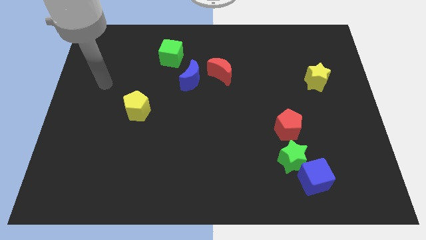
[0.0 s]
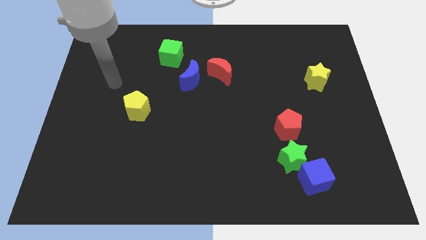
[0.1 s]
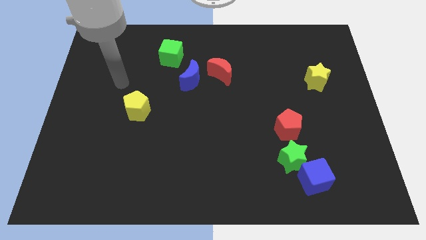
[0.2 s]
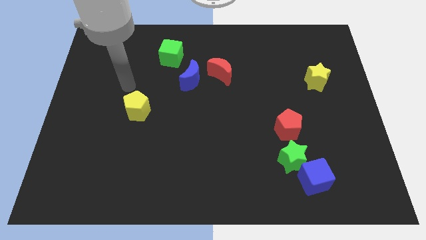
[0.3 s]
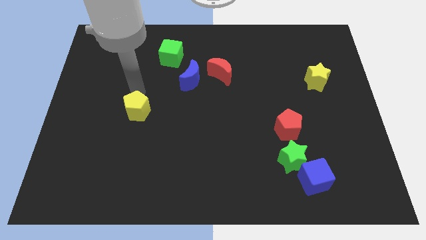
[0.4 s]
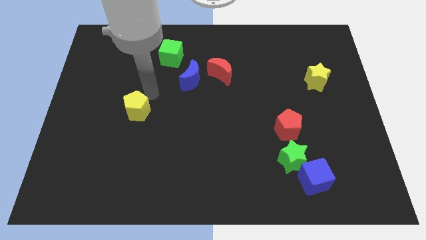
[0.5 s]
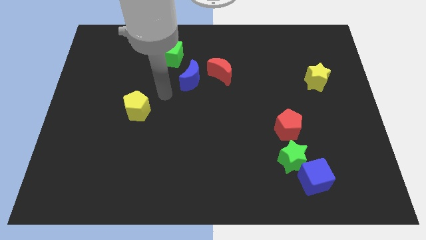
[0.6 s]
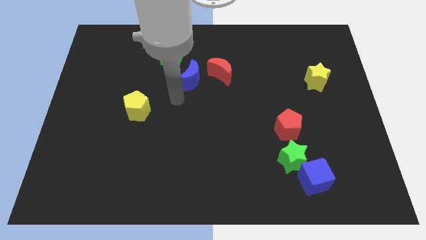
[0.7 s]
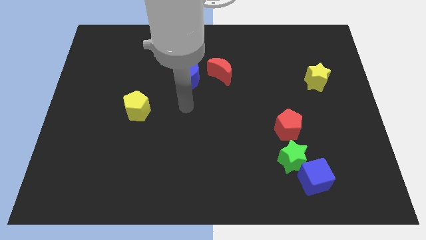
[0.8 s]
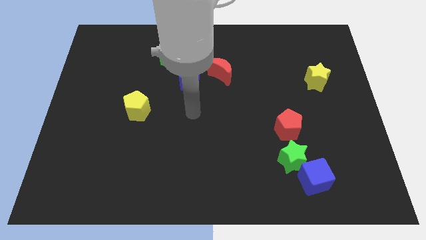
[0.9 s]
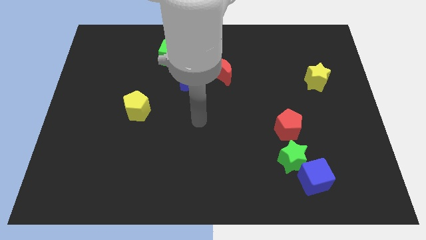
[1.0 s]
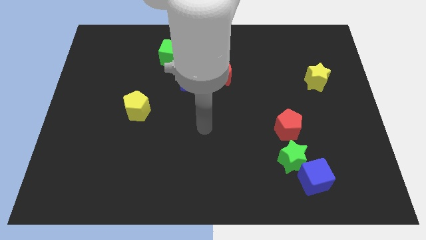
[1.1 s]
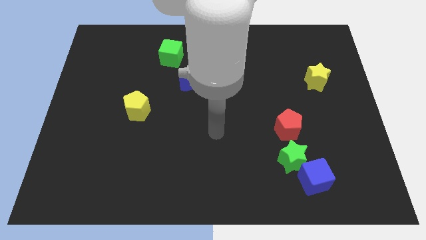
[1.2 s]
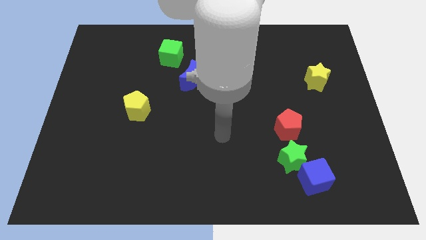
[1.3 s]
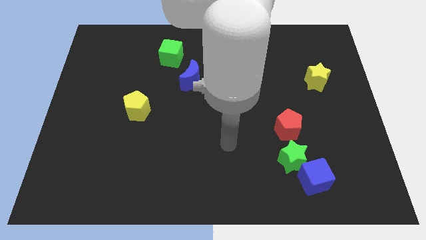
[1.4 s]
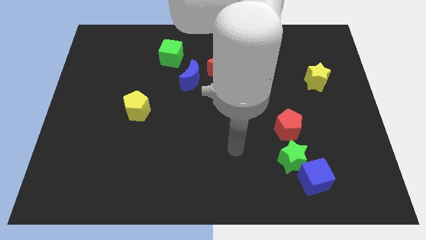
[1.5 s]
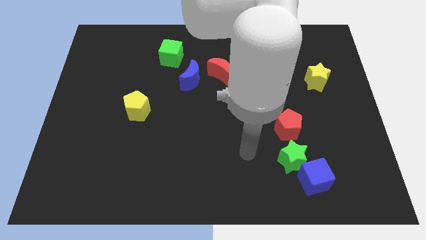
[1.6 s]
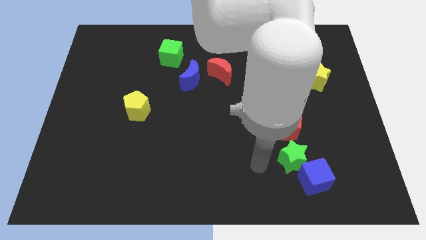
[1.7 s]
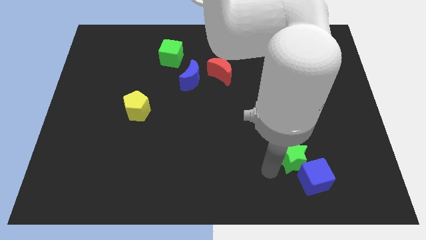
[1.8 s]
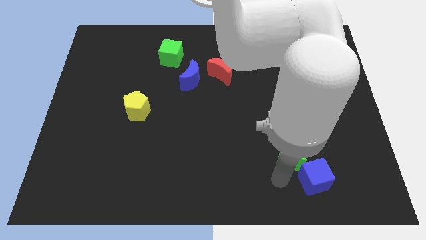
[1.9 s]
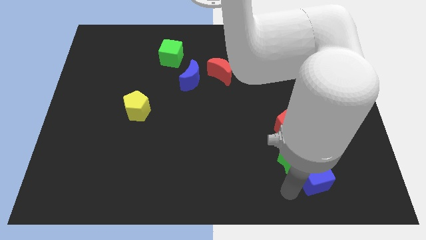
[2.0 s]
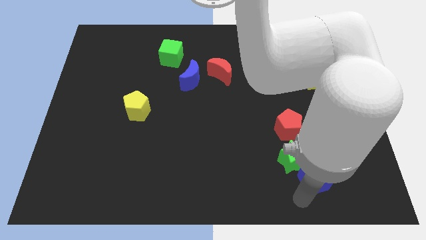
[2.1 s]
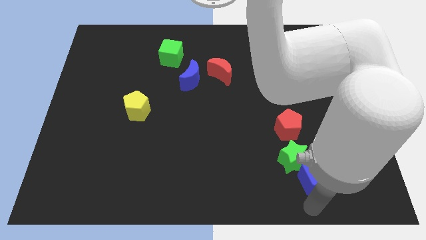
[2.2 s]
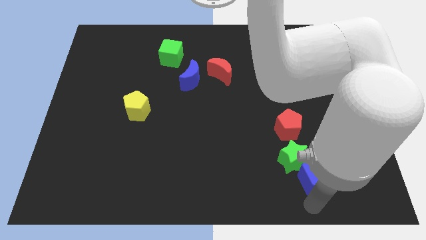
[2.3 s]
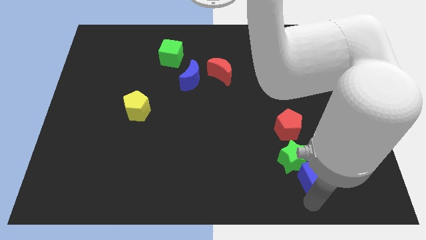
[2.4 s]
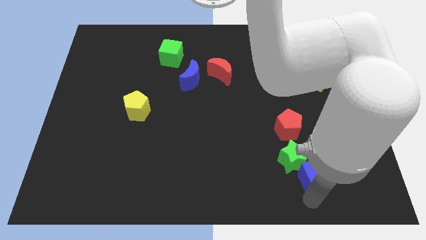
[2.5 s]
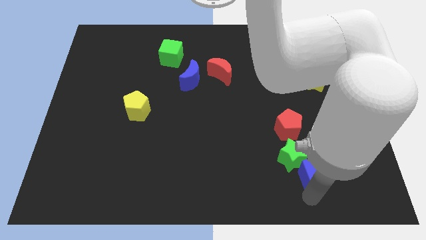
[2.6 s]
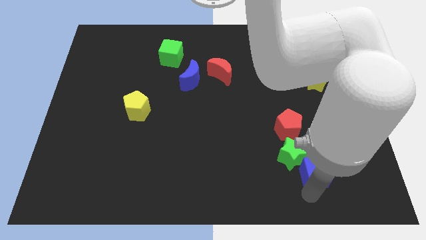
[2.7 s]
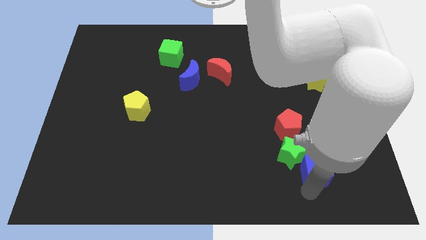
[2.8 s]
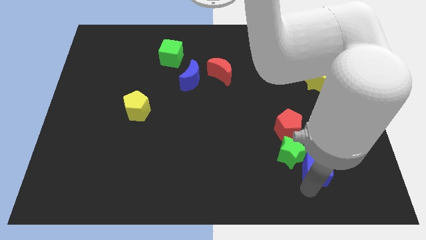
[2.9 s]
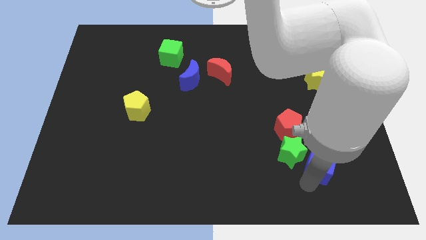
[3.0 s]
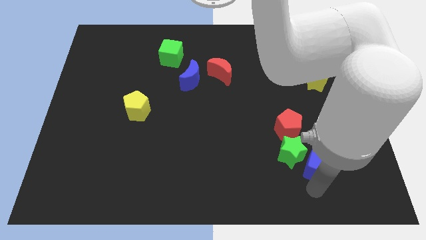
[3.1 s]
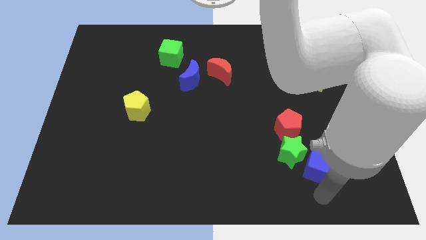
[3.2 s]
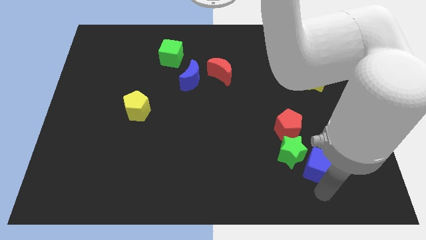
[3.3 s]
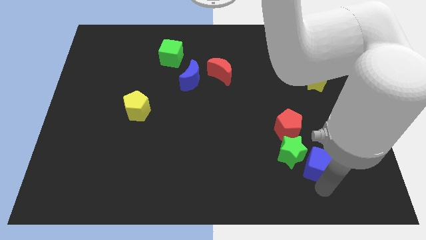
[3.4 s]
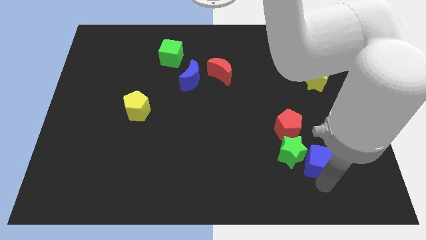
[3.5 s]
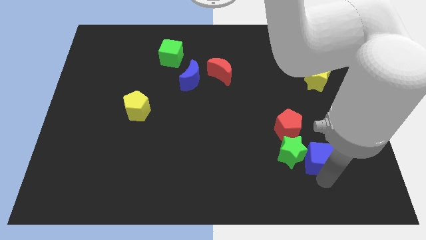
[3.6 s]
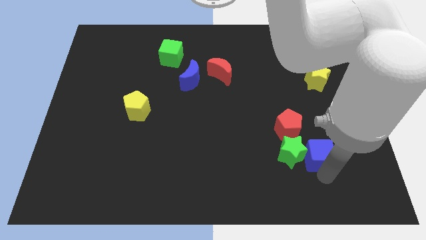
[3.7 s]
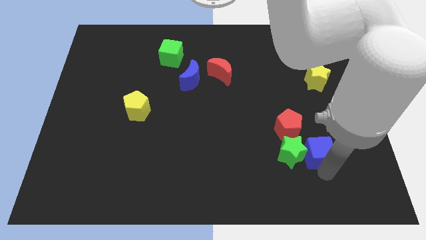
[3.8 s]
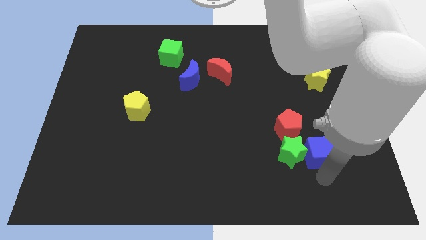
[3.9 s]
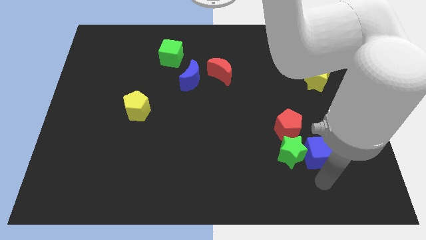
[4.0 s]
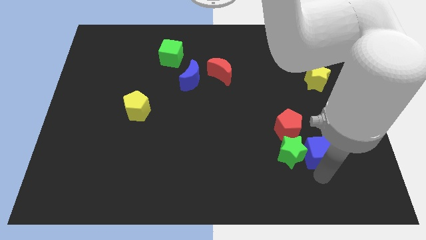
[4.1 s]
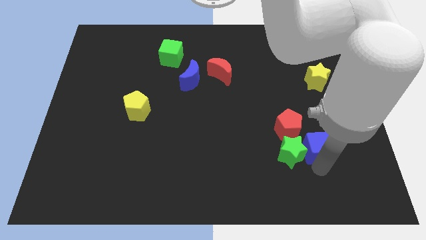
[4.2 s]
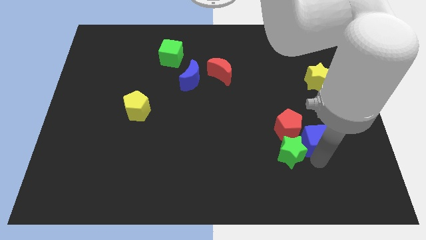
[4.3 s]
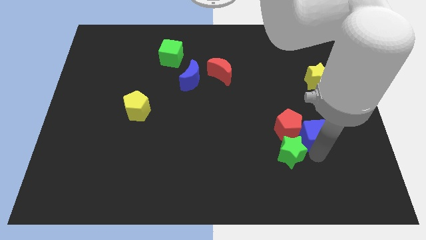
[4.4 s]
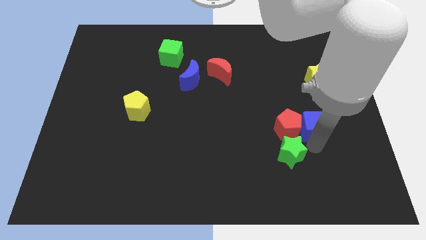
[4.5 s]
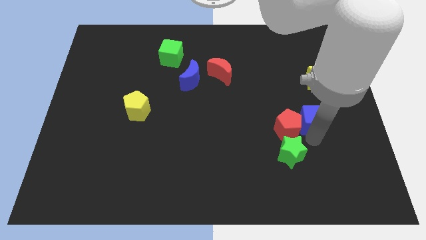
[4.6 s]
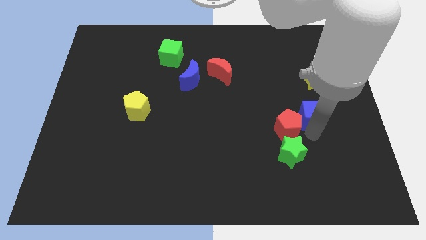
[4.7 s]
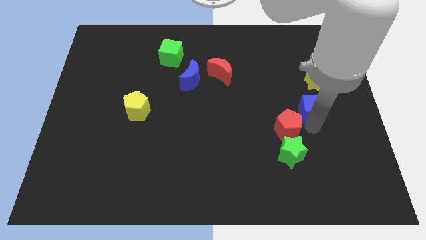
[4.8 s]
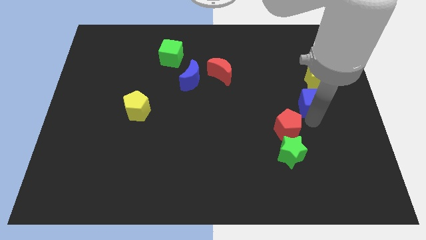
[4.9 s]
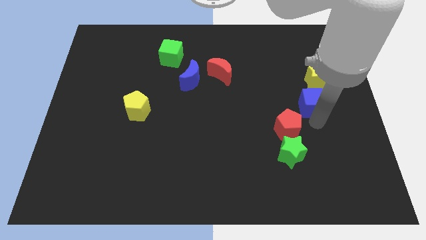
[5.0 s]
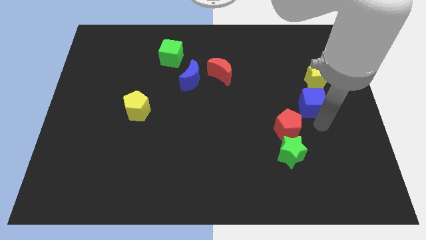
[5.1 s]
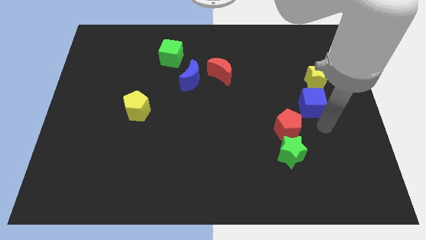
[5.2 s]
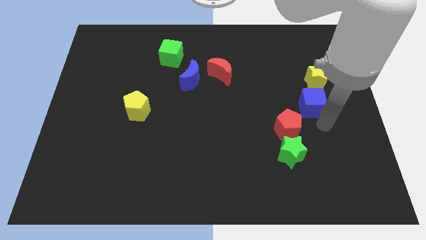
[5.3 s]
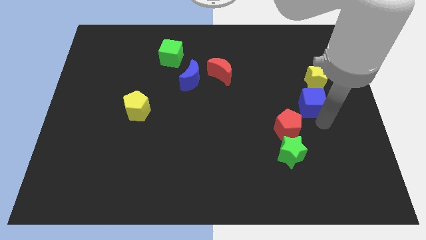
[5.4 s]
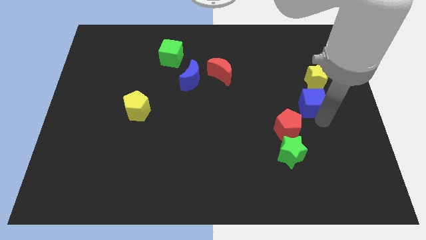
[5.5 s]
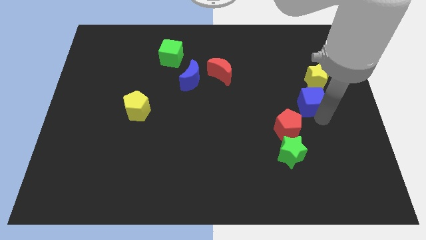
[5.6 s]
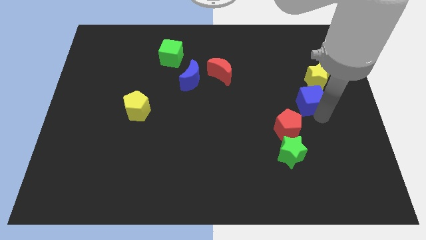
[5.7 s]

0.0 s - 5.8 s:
move the blue cube up

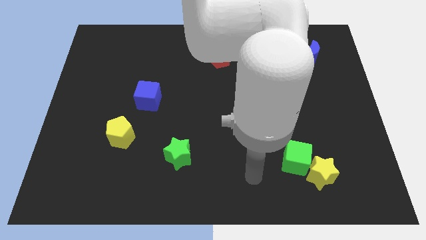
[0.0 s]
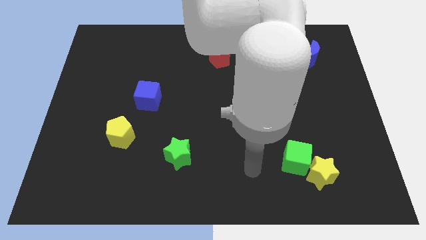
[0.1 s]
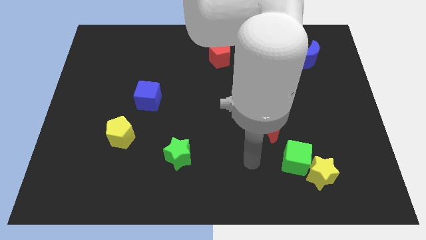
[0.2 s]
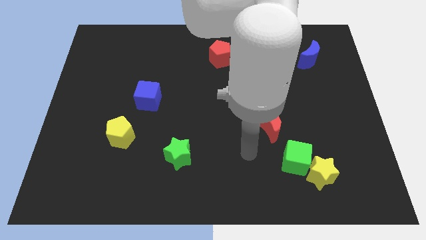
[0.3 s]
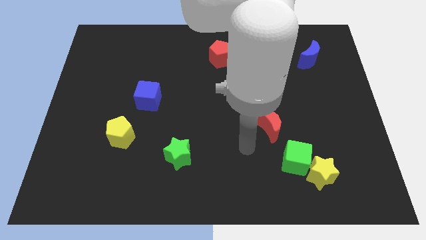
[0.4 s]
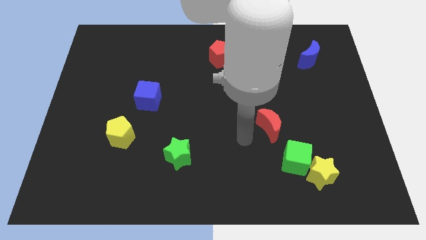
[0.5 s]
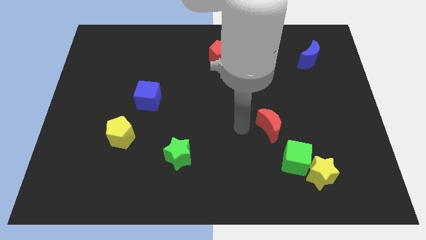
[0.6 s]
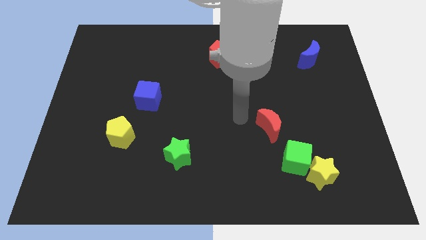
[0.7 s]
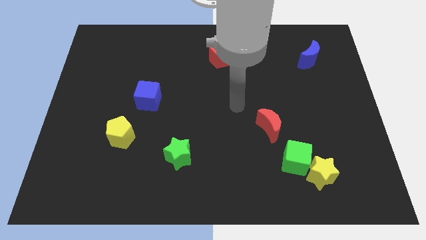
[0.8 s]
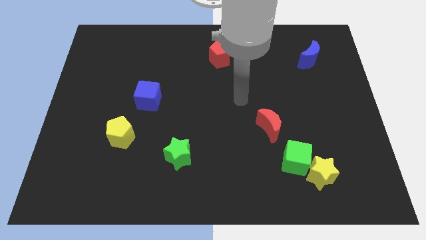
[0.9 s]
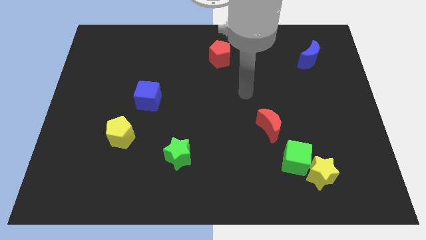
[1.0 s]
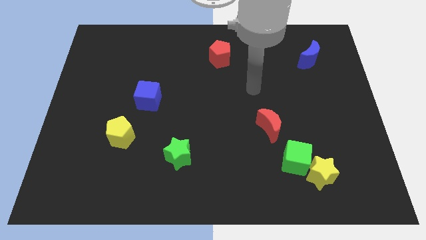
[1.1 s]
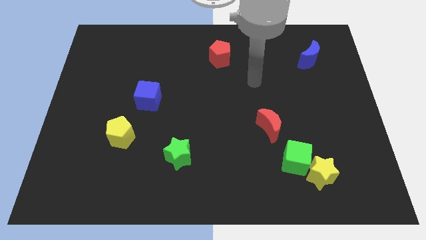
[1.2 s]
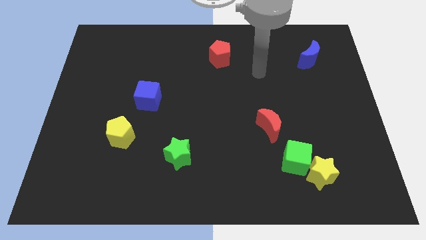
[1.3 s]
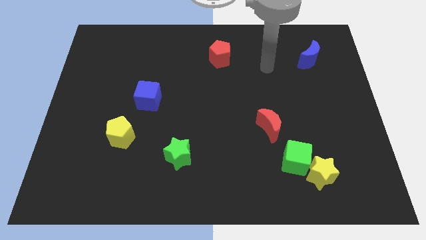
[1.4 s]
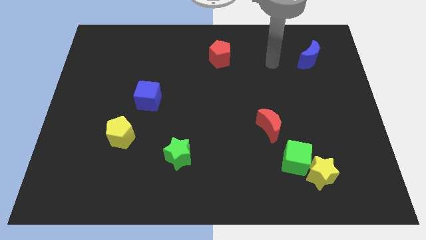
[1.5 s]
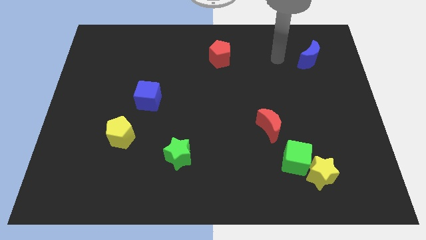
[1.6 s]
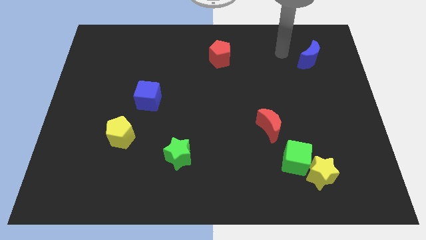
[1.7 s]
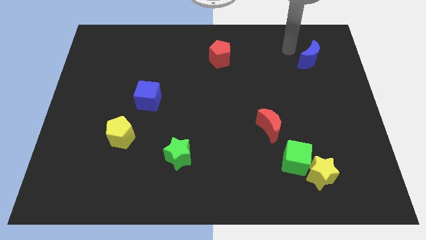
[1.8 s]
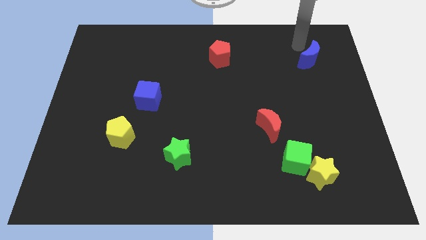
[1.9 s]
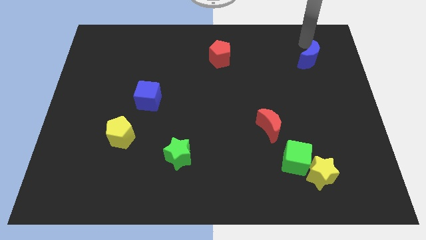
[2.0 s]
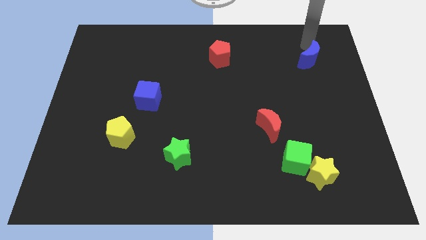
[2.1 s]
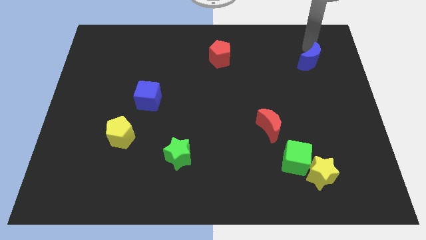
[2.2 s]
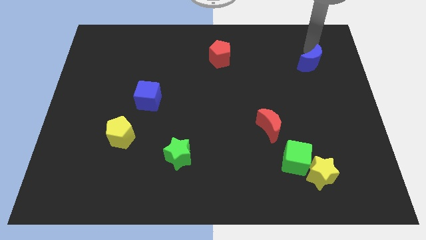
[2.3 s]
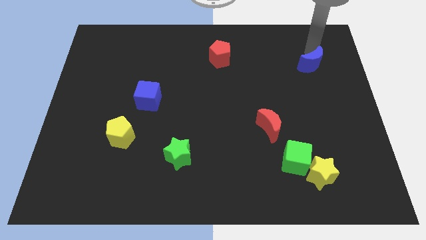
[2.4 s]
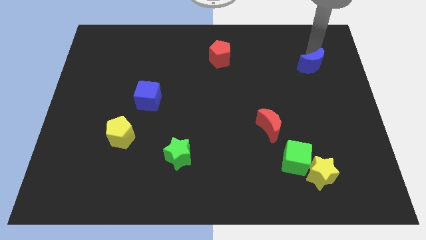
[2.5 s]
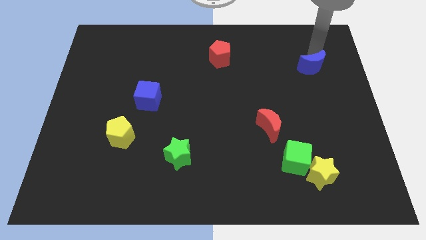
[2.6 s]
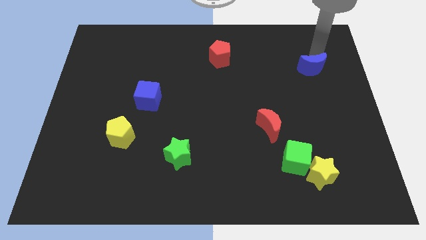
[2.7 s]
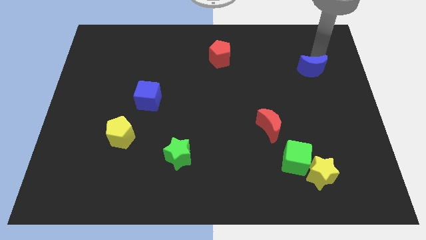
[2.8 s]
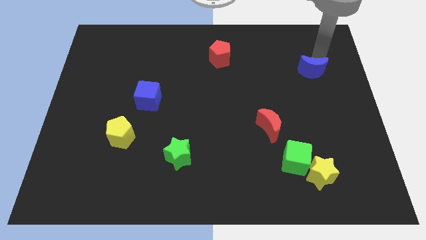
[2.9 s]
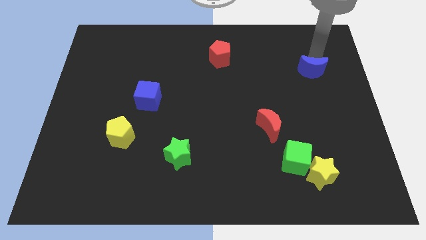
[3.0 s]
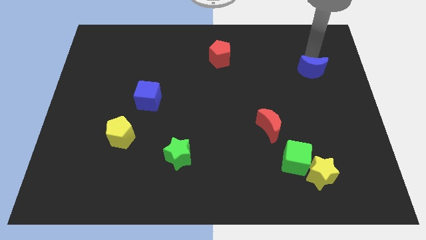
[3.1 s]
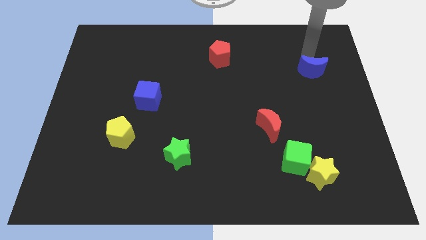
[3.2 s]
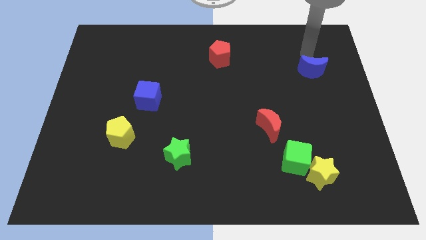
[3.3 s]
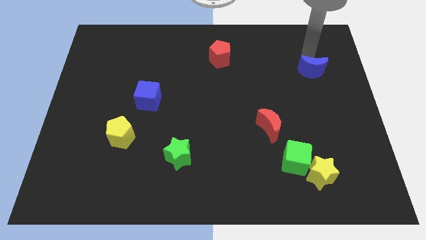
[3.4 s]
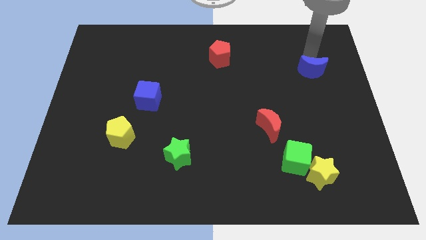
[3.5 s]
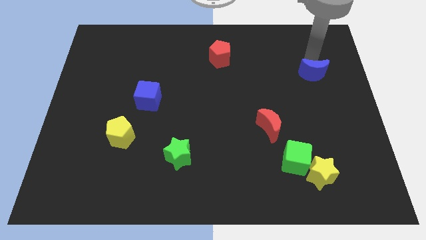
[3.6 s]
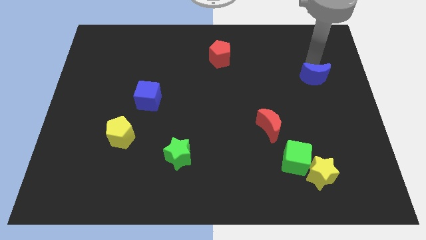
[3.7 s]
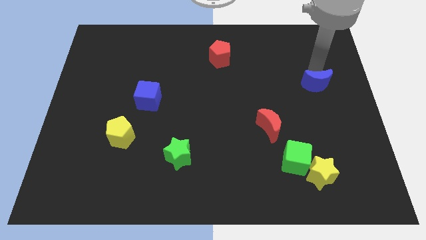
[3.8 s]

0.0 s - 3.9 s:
slide the blue moon somewhat downwards
